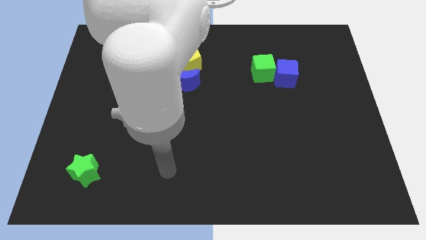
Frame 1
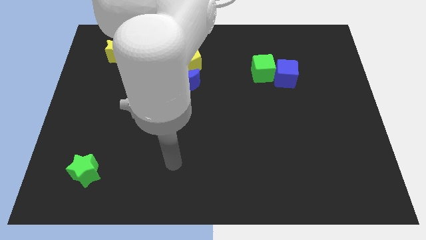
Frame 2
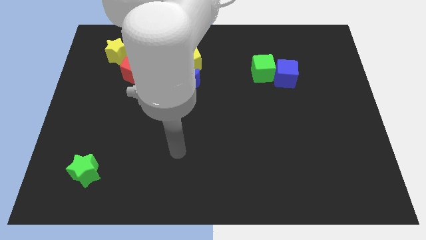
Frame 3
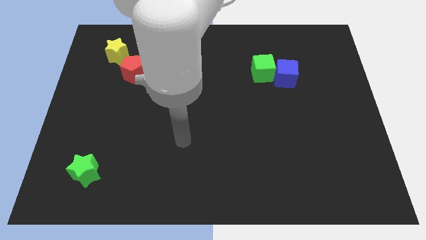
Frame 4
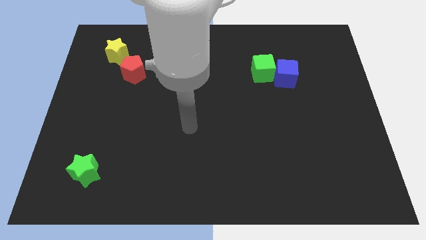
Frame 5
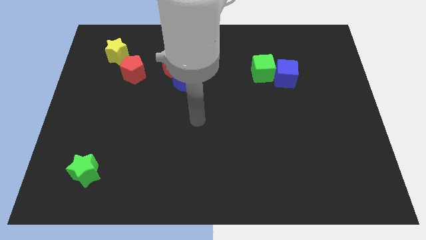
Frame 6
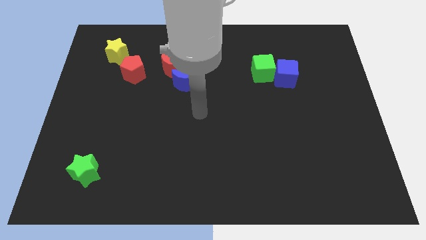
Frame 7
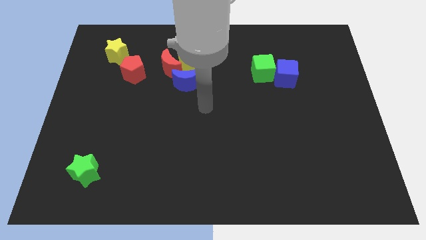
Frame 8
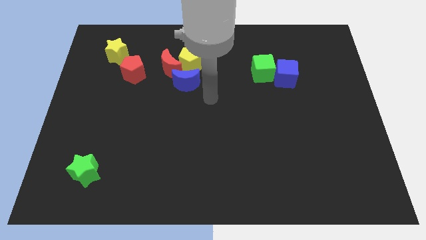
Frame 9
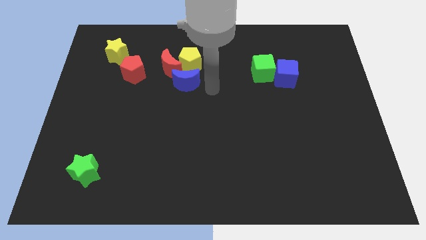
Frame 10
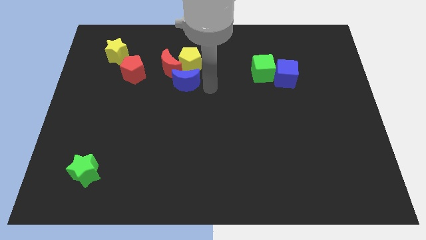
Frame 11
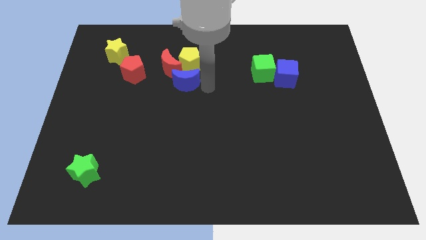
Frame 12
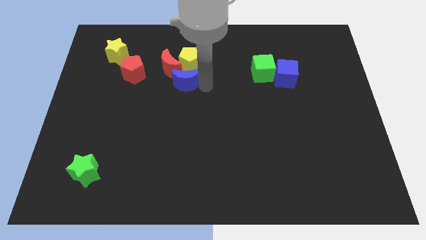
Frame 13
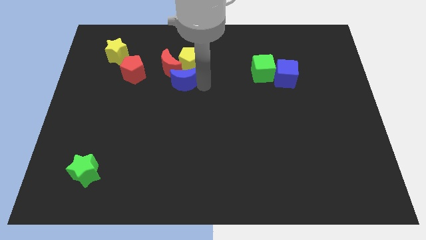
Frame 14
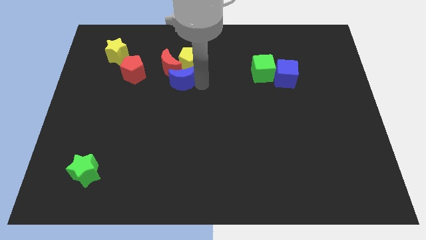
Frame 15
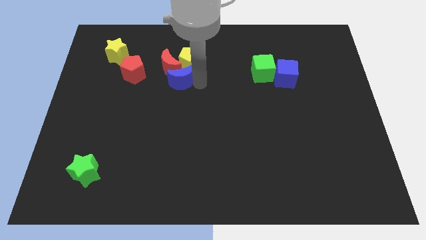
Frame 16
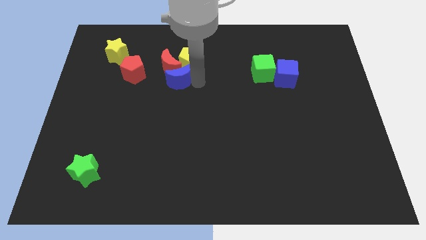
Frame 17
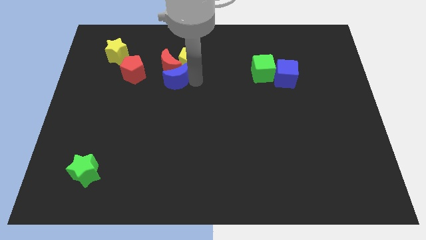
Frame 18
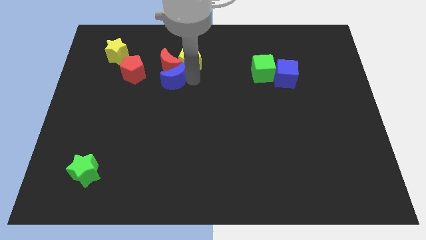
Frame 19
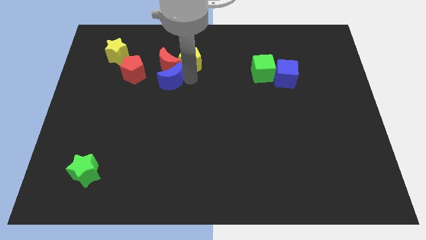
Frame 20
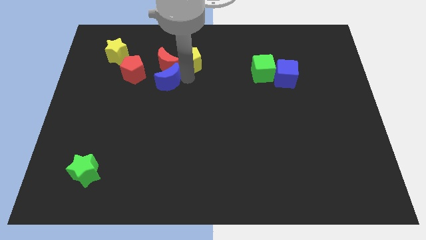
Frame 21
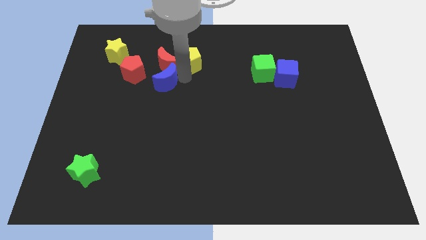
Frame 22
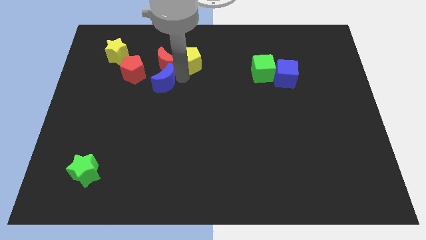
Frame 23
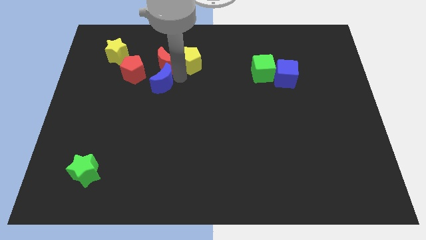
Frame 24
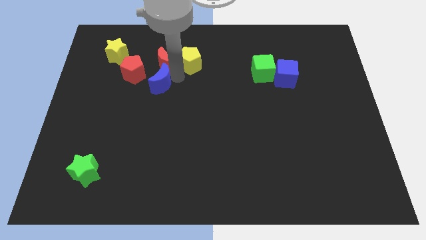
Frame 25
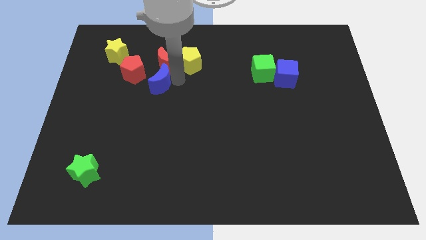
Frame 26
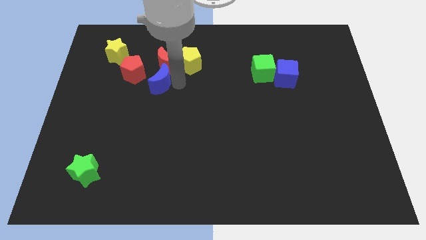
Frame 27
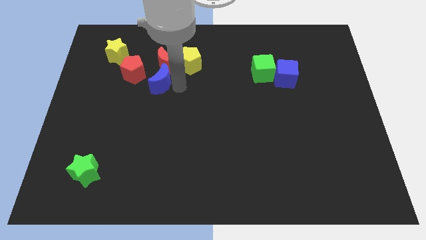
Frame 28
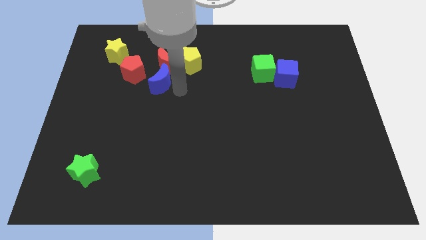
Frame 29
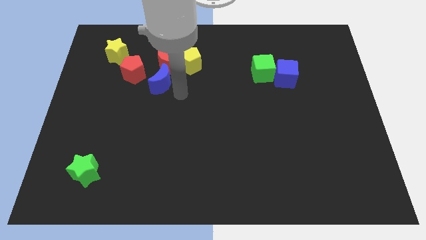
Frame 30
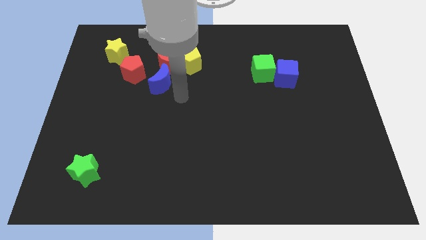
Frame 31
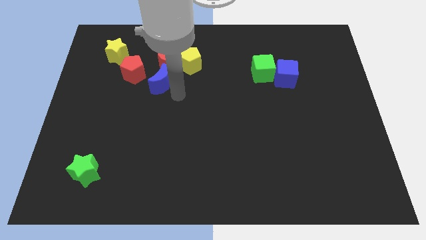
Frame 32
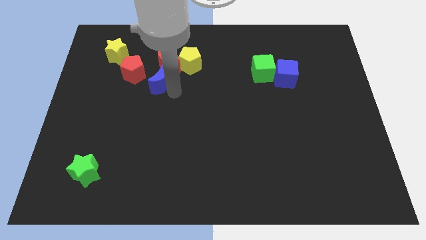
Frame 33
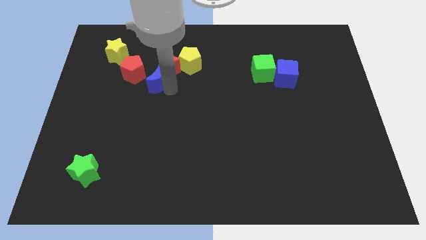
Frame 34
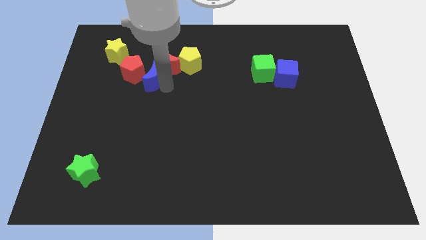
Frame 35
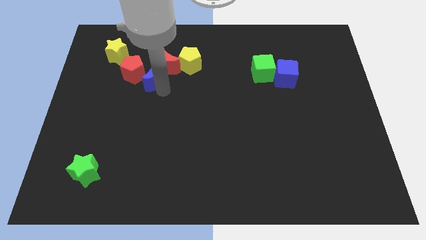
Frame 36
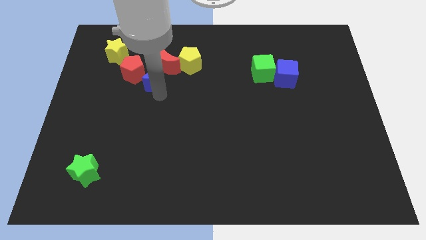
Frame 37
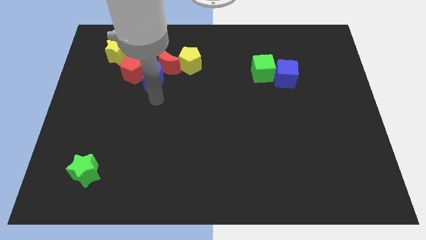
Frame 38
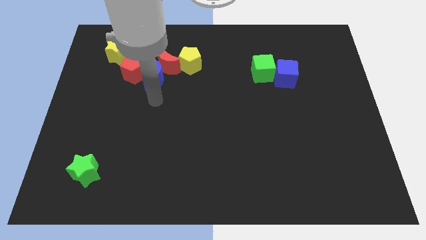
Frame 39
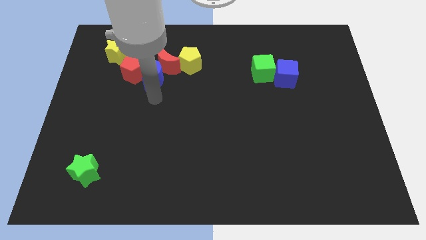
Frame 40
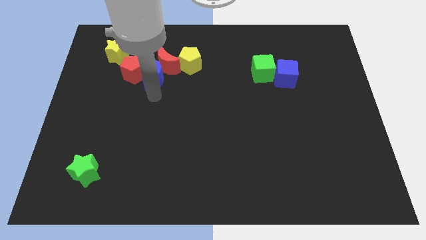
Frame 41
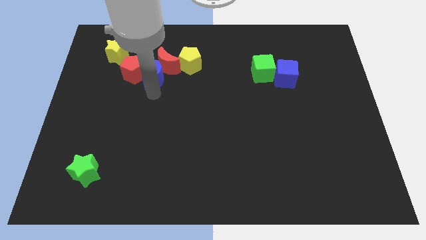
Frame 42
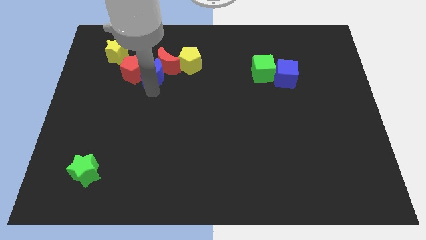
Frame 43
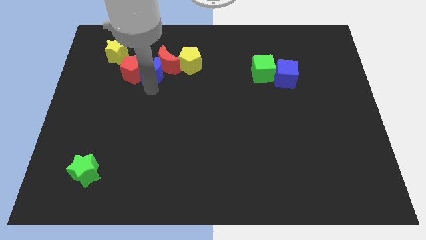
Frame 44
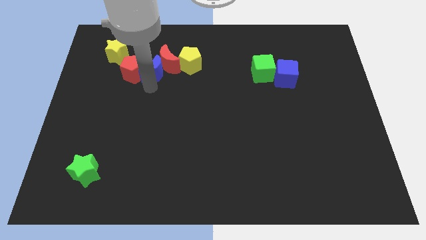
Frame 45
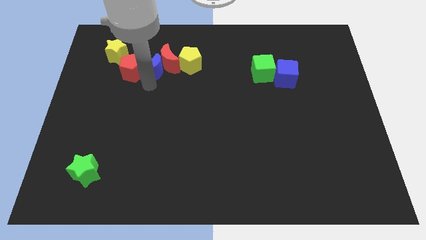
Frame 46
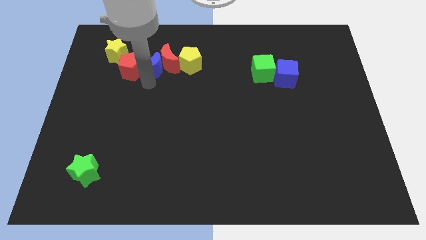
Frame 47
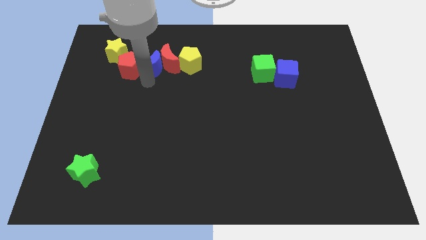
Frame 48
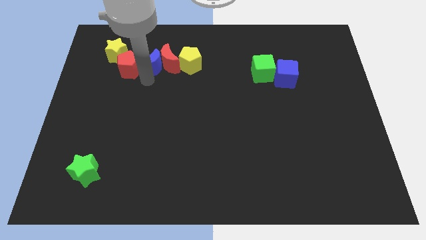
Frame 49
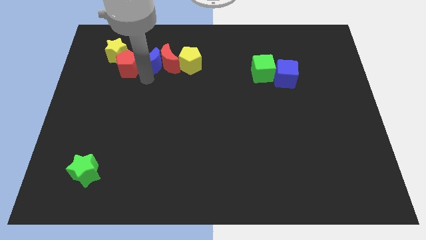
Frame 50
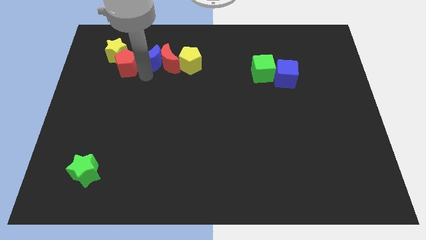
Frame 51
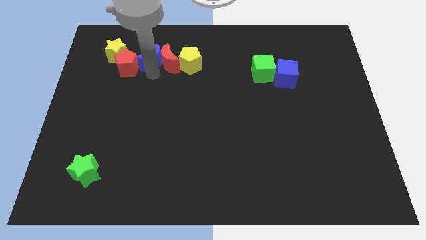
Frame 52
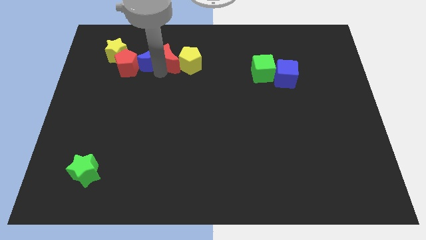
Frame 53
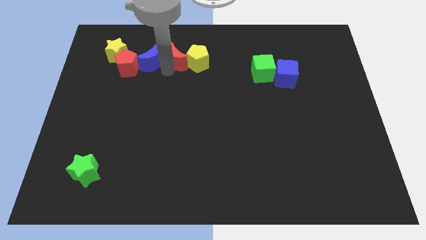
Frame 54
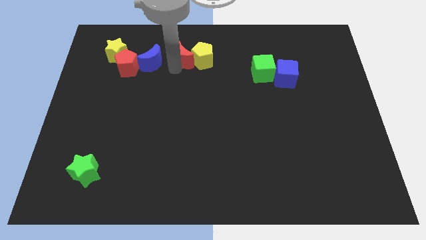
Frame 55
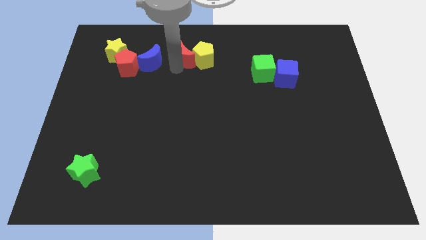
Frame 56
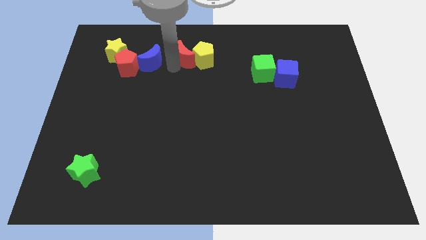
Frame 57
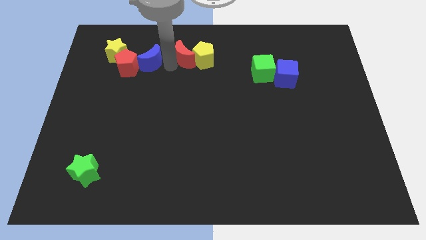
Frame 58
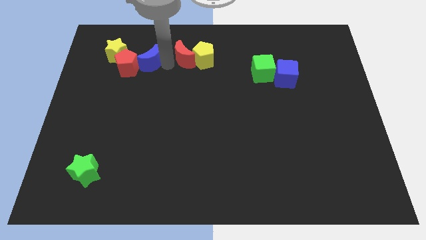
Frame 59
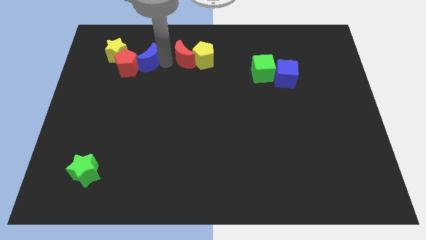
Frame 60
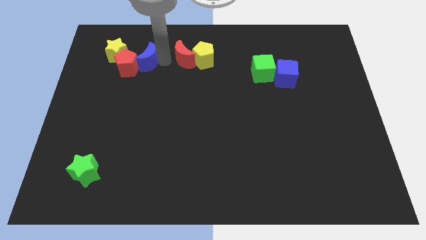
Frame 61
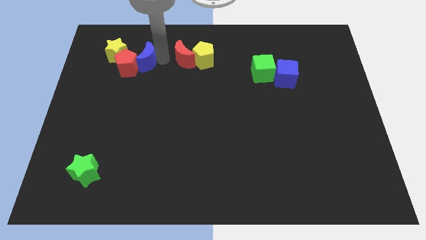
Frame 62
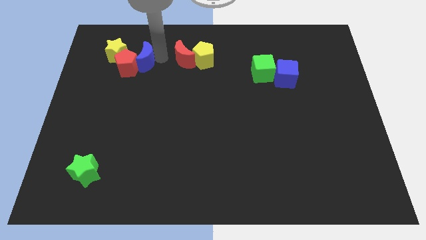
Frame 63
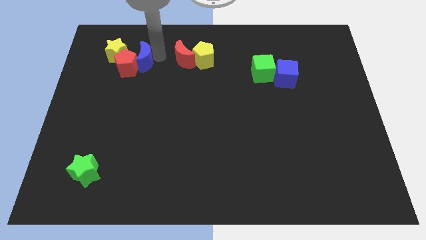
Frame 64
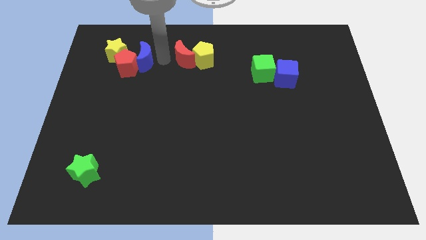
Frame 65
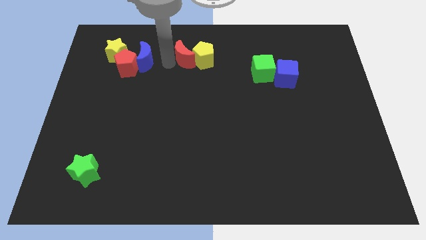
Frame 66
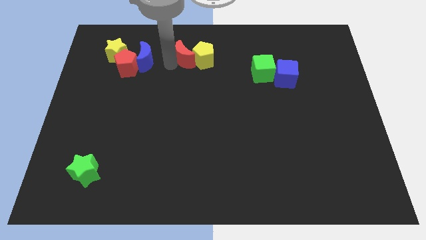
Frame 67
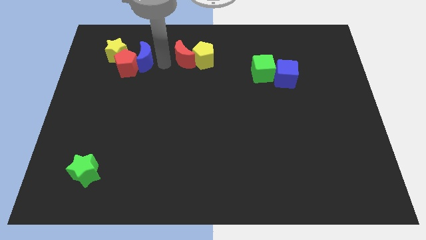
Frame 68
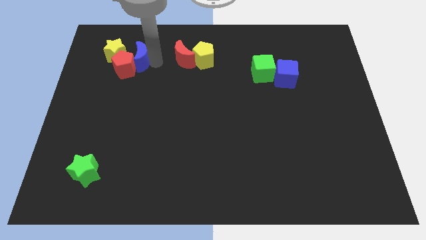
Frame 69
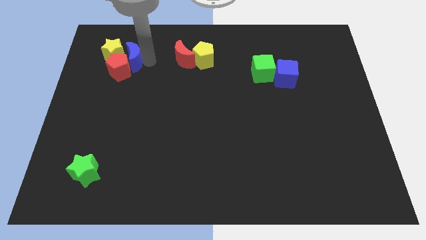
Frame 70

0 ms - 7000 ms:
slide the blue moon next to the yellow star
